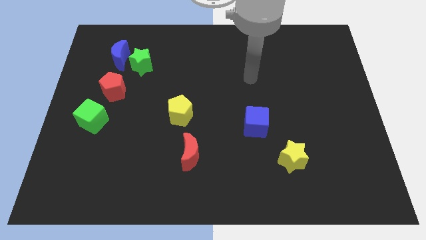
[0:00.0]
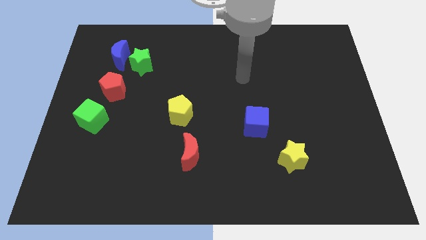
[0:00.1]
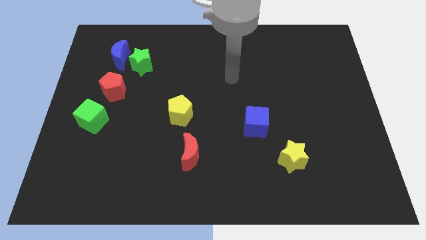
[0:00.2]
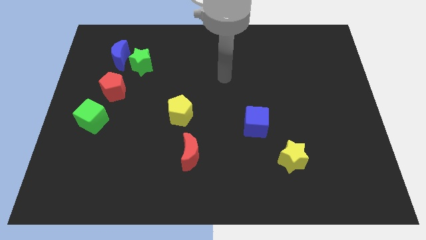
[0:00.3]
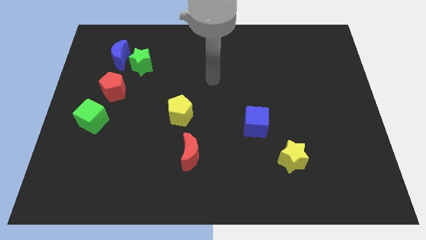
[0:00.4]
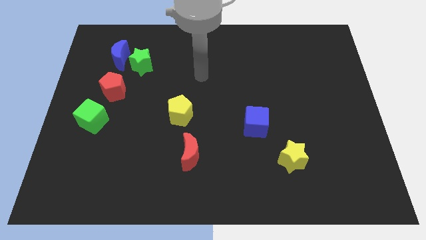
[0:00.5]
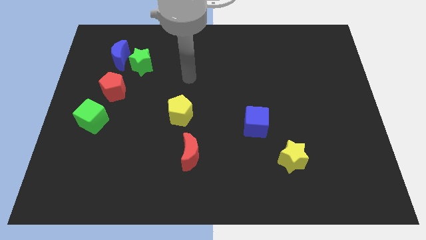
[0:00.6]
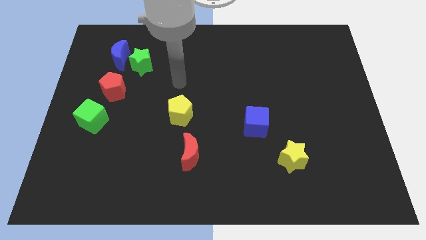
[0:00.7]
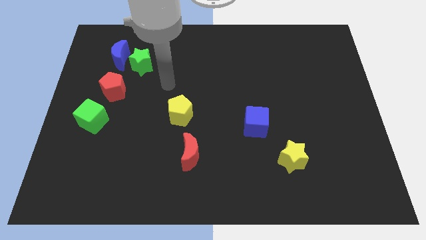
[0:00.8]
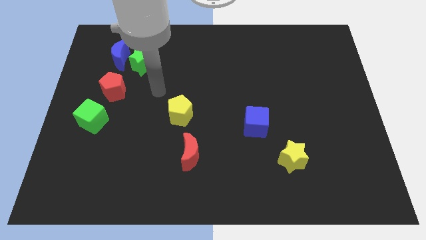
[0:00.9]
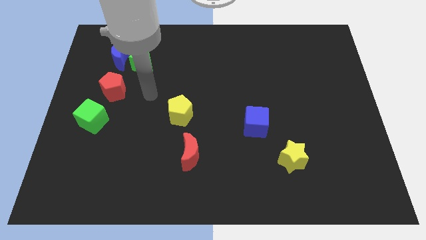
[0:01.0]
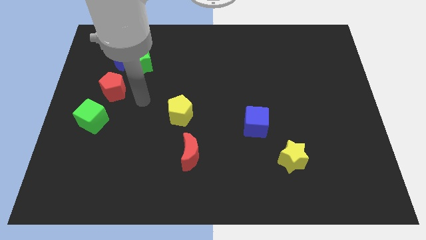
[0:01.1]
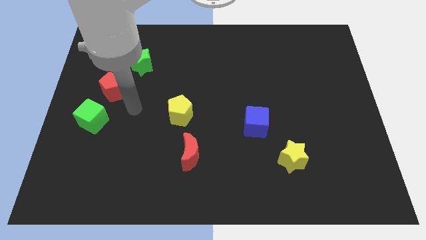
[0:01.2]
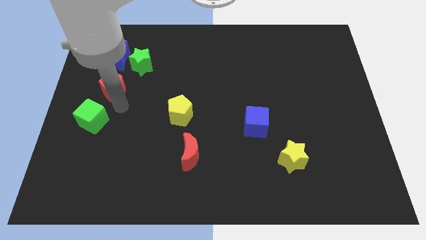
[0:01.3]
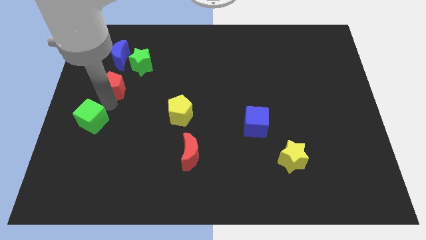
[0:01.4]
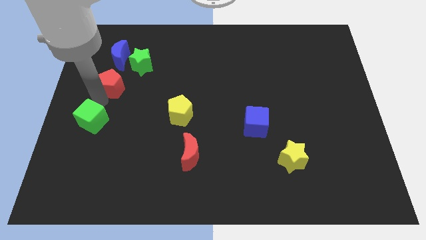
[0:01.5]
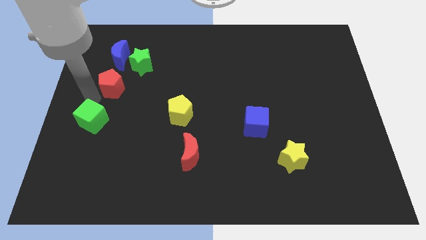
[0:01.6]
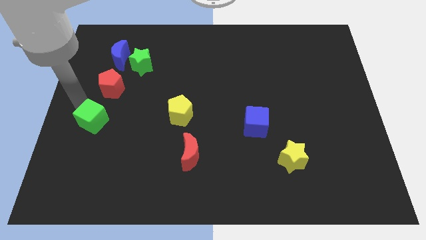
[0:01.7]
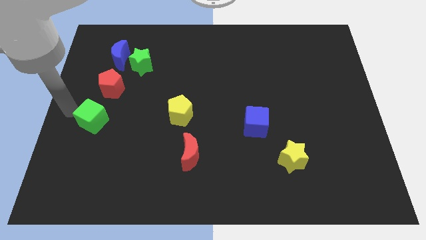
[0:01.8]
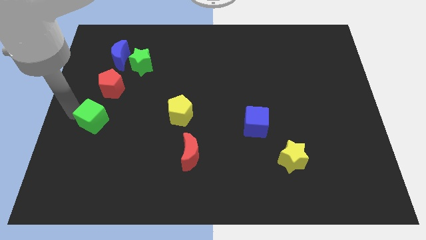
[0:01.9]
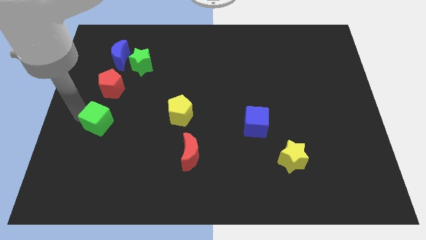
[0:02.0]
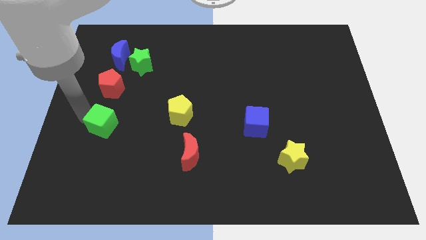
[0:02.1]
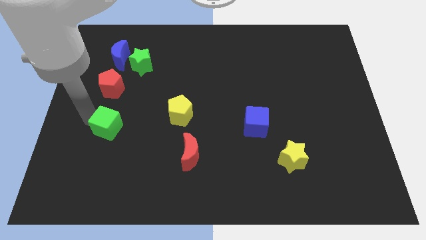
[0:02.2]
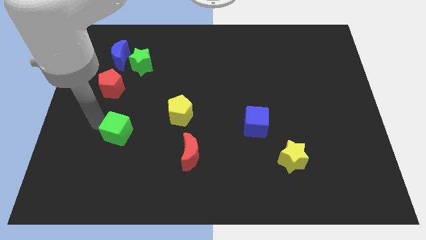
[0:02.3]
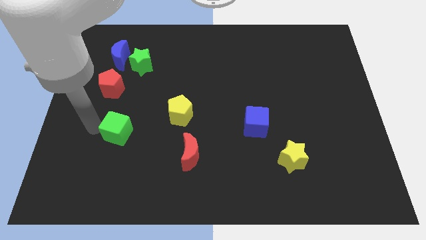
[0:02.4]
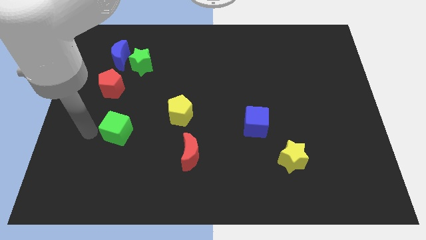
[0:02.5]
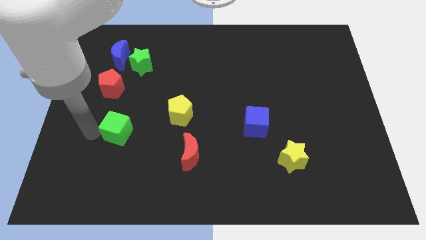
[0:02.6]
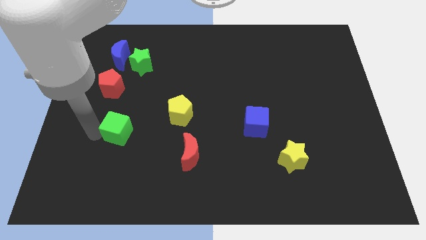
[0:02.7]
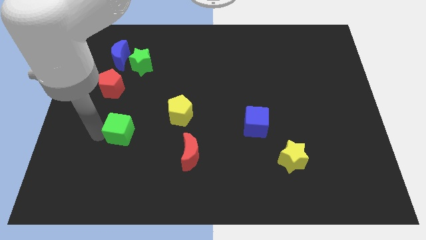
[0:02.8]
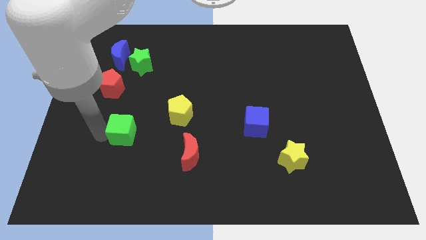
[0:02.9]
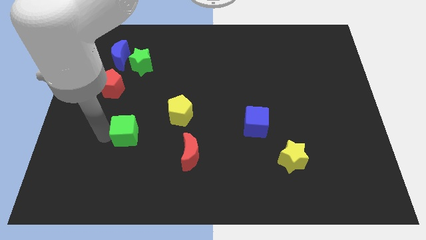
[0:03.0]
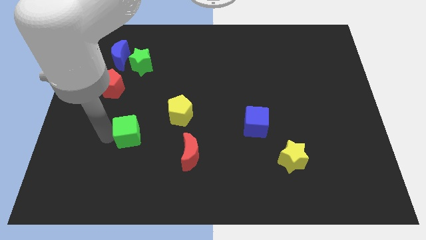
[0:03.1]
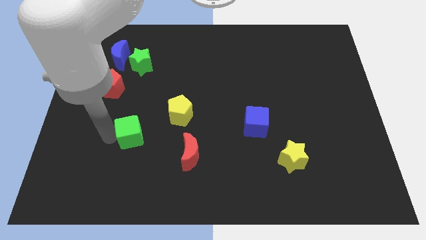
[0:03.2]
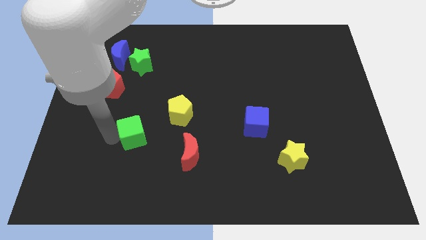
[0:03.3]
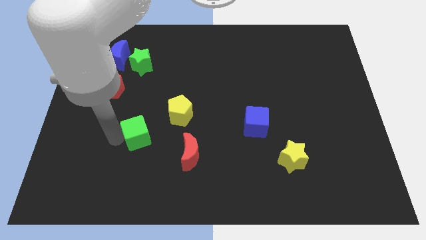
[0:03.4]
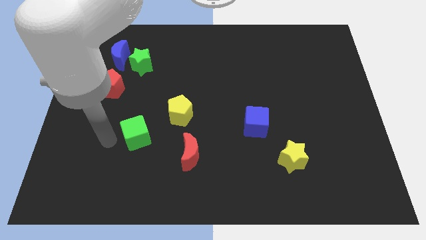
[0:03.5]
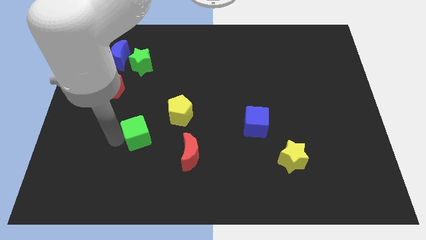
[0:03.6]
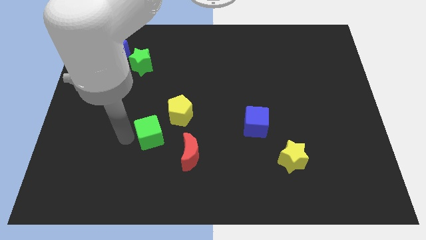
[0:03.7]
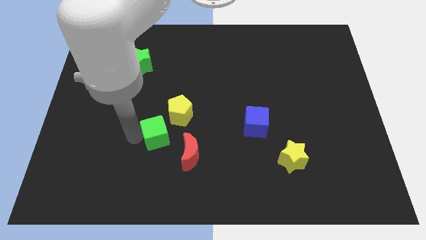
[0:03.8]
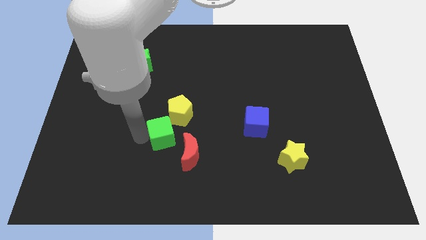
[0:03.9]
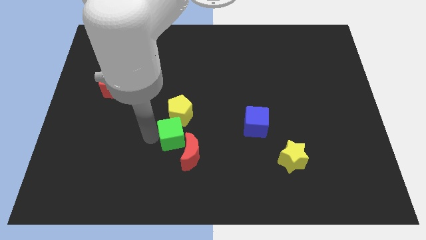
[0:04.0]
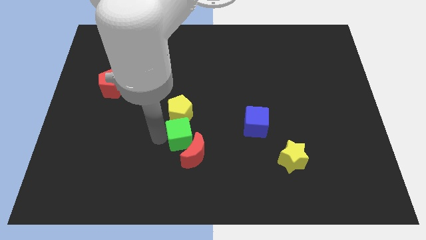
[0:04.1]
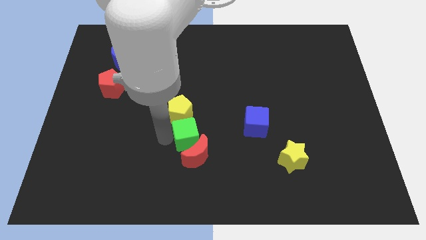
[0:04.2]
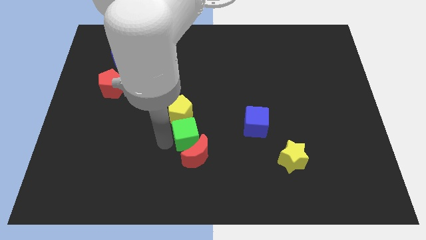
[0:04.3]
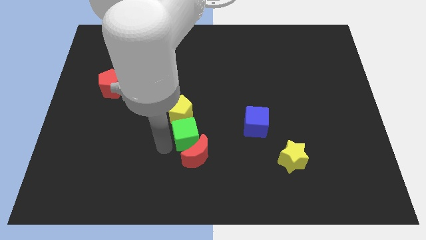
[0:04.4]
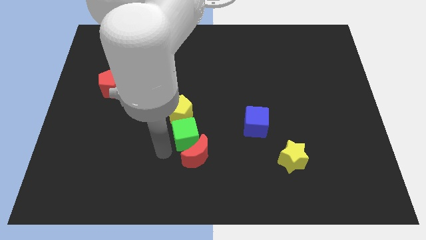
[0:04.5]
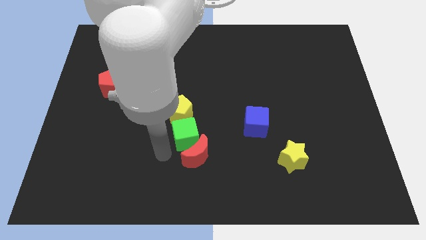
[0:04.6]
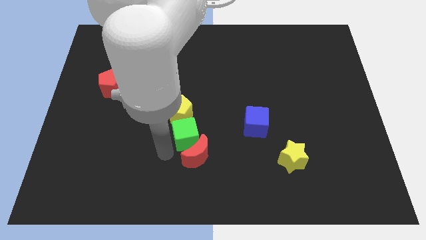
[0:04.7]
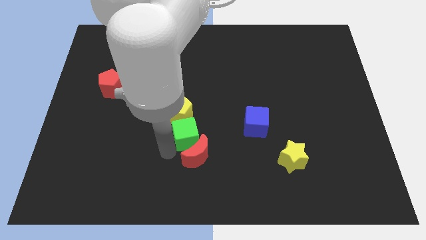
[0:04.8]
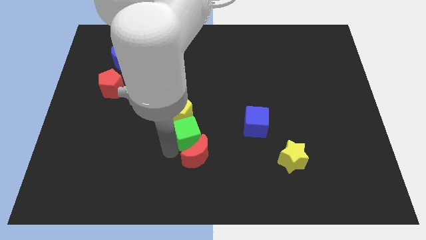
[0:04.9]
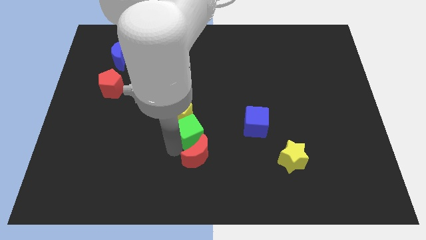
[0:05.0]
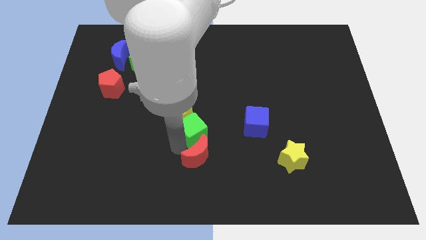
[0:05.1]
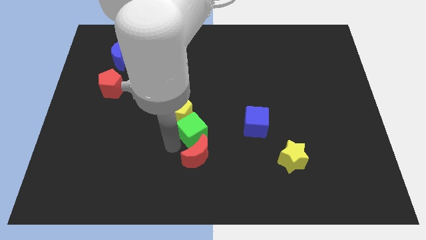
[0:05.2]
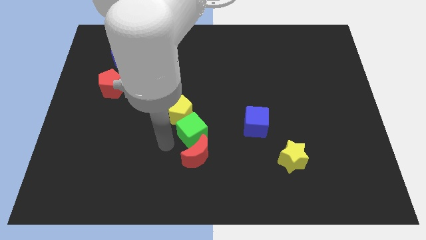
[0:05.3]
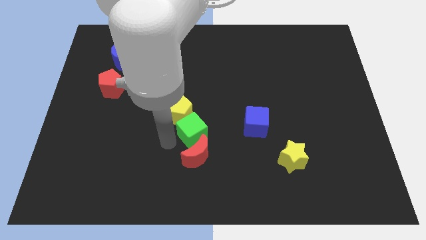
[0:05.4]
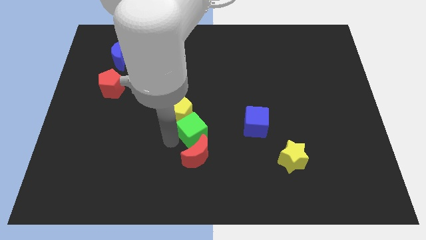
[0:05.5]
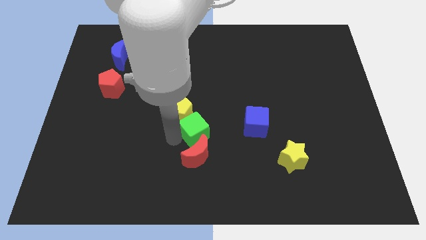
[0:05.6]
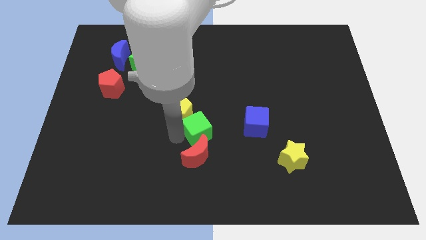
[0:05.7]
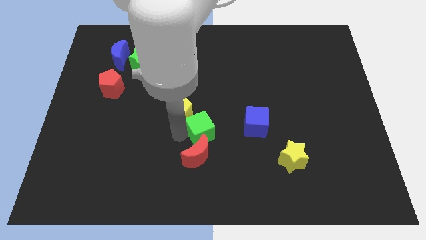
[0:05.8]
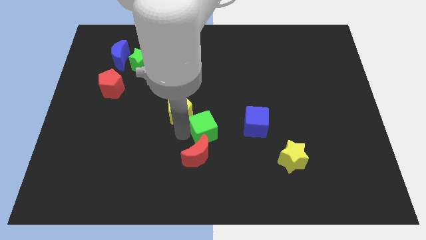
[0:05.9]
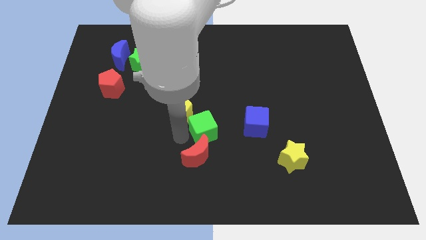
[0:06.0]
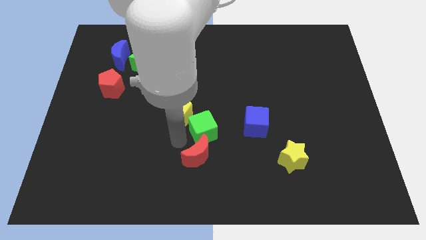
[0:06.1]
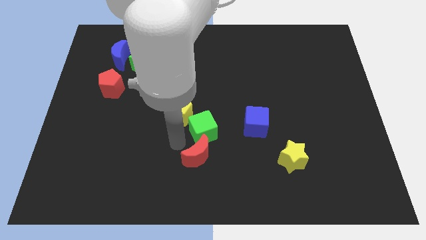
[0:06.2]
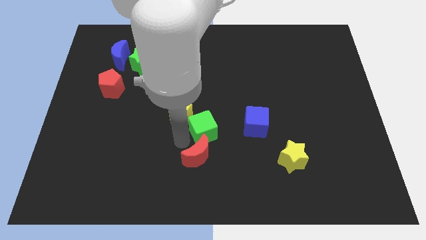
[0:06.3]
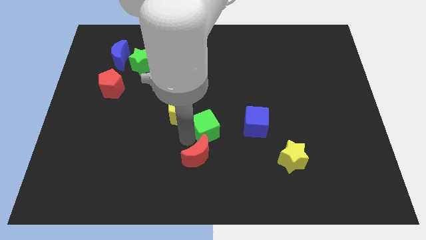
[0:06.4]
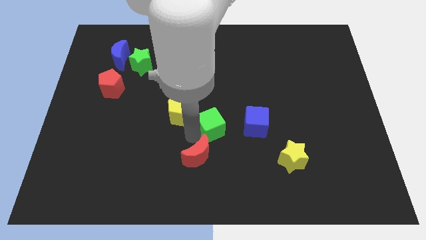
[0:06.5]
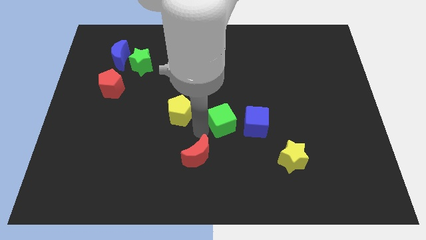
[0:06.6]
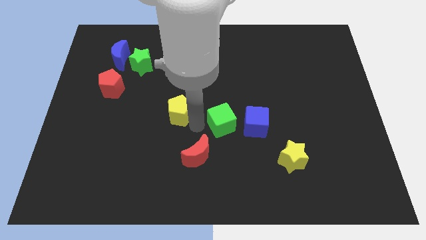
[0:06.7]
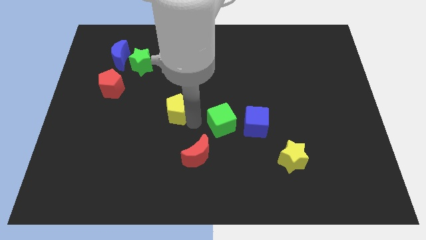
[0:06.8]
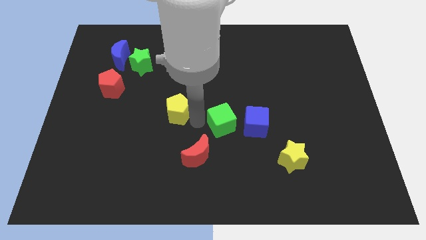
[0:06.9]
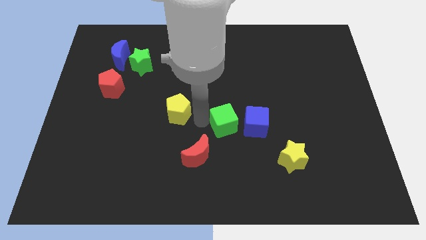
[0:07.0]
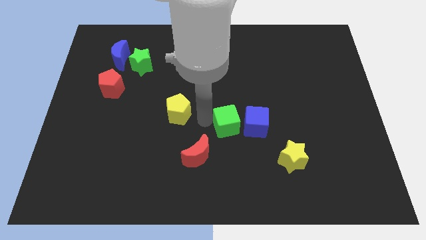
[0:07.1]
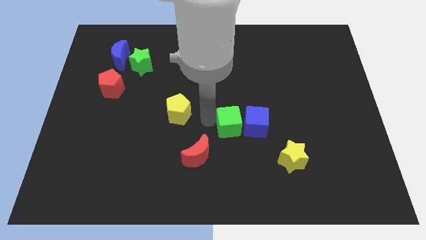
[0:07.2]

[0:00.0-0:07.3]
put the green cube towards the blue cube

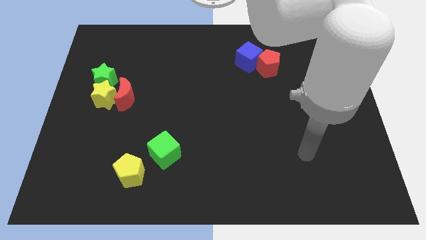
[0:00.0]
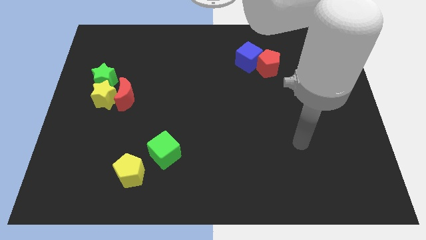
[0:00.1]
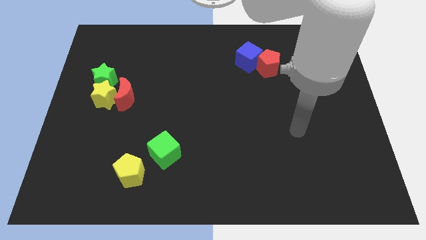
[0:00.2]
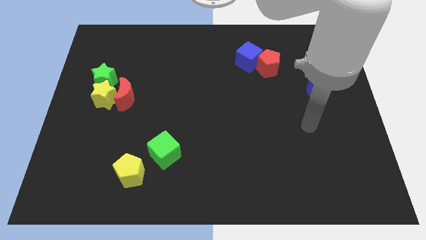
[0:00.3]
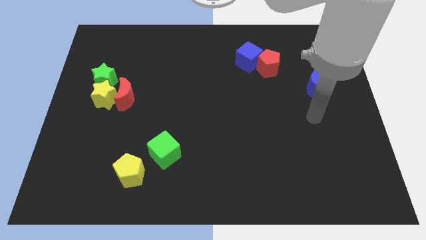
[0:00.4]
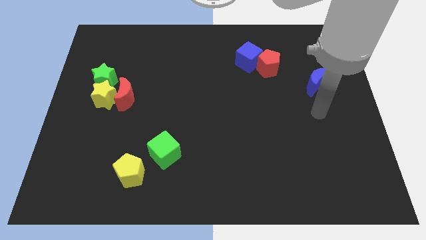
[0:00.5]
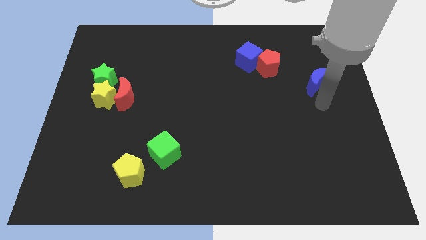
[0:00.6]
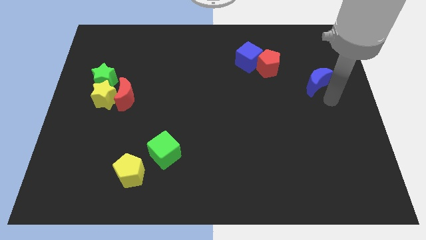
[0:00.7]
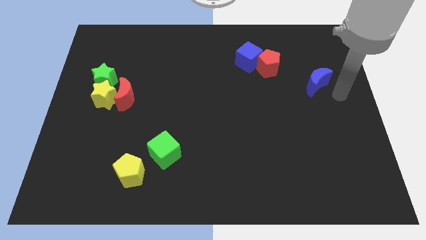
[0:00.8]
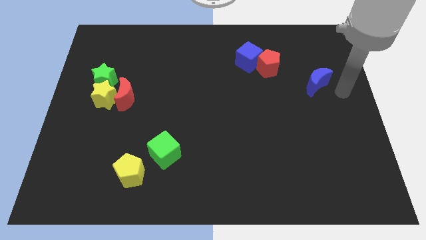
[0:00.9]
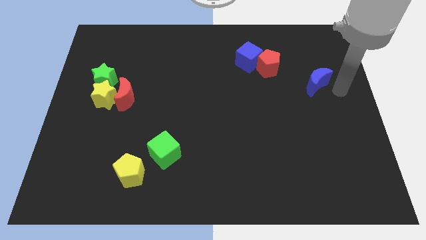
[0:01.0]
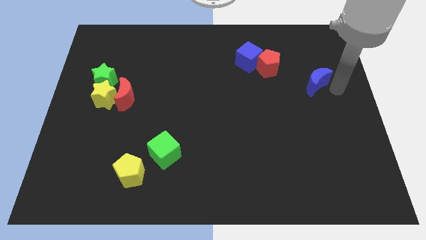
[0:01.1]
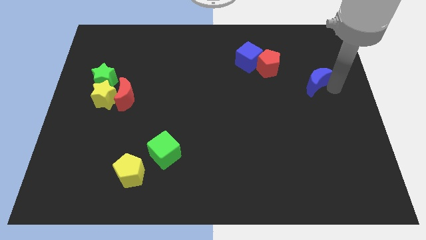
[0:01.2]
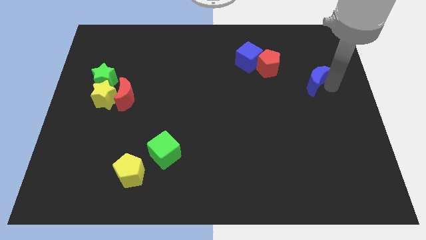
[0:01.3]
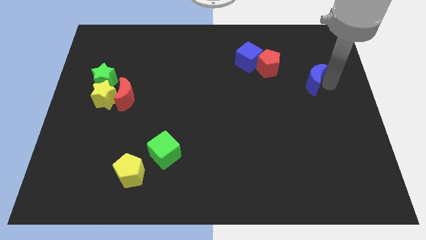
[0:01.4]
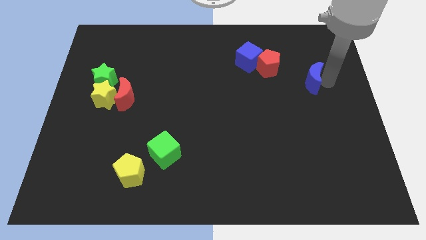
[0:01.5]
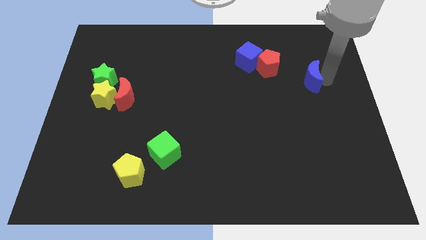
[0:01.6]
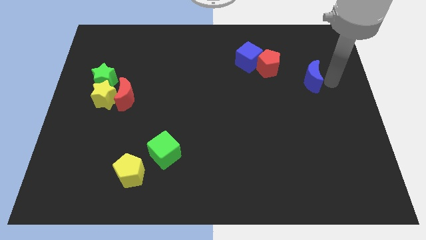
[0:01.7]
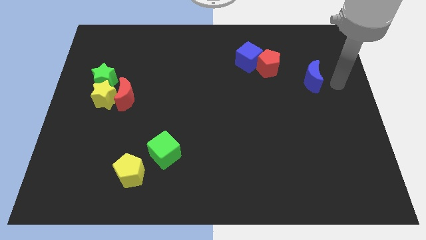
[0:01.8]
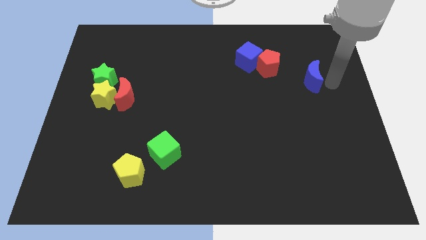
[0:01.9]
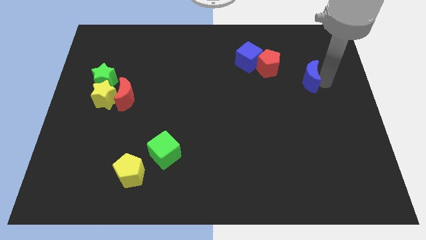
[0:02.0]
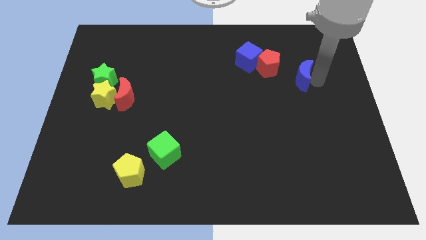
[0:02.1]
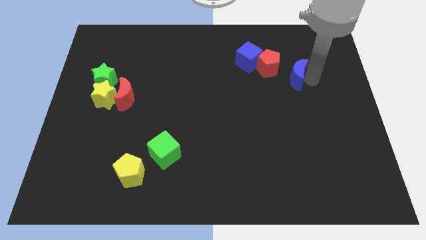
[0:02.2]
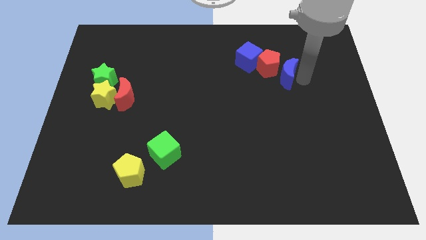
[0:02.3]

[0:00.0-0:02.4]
slide the blue moon to the red pentagon
